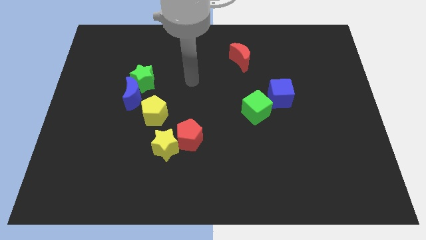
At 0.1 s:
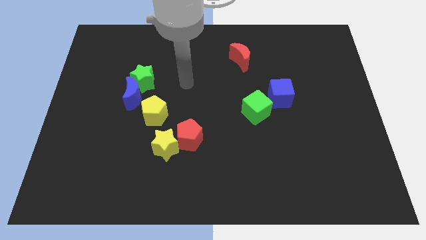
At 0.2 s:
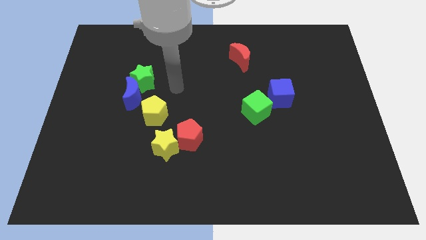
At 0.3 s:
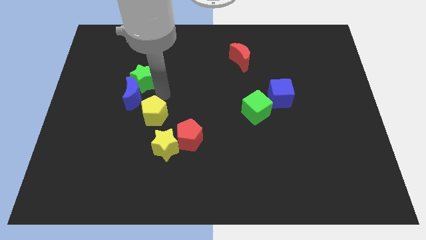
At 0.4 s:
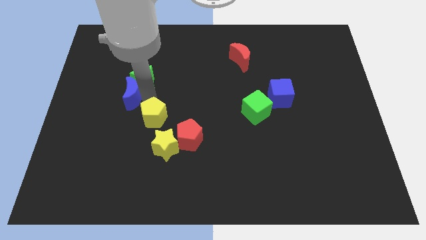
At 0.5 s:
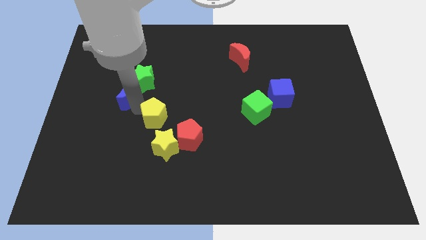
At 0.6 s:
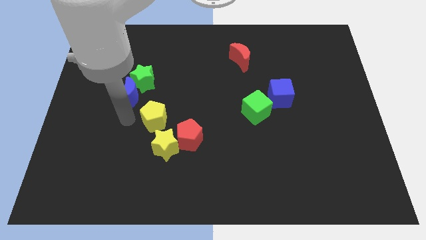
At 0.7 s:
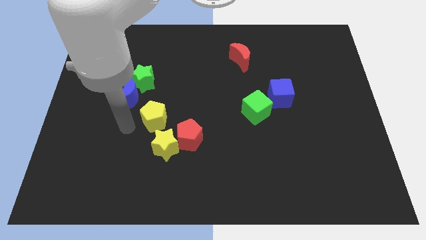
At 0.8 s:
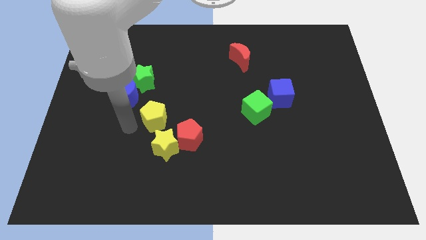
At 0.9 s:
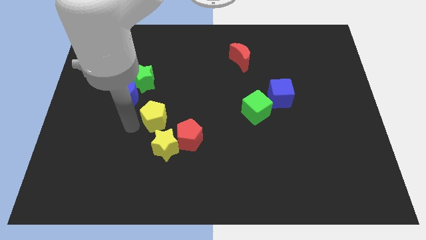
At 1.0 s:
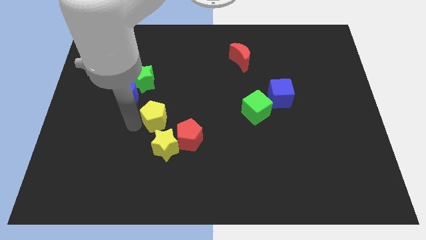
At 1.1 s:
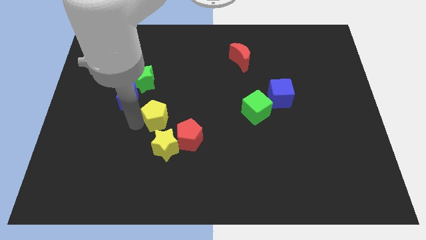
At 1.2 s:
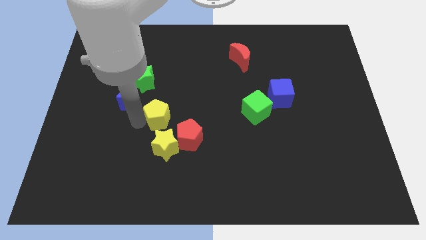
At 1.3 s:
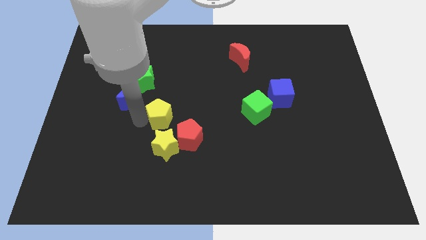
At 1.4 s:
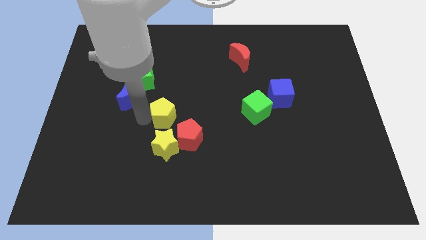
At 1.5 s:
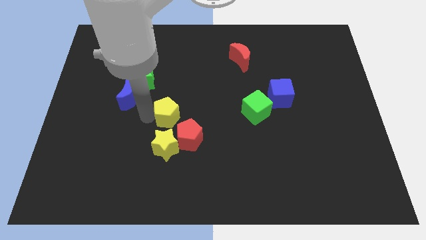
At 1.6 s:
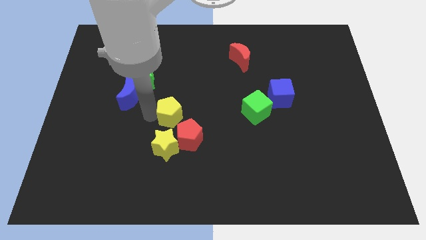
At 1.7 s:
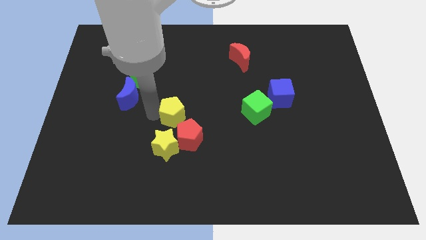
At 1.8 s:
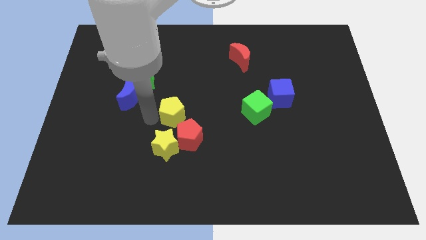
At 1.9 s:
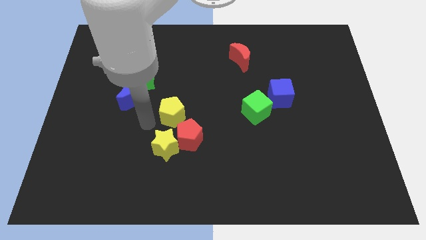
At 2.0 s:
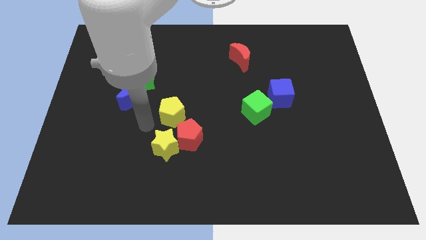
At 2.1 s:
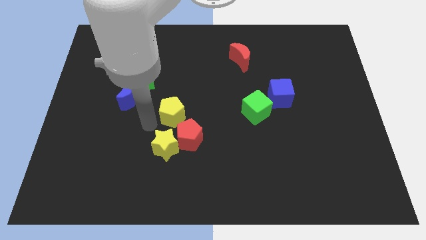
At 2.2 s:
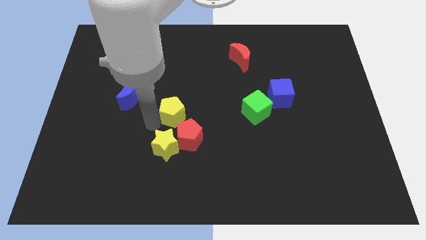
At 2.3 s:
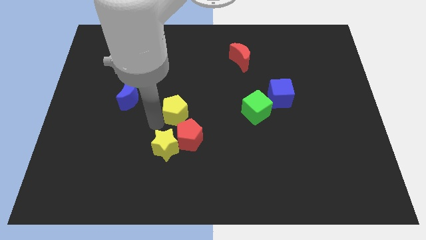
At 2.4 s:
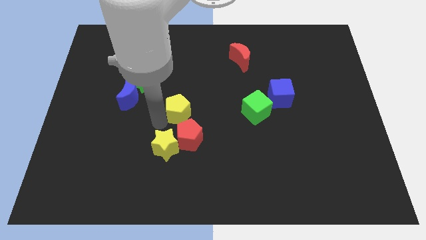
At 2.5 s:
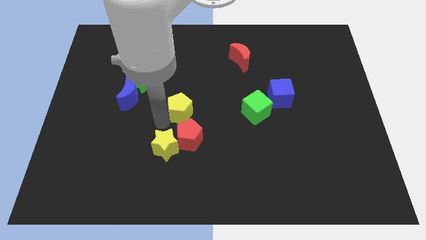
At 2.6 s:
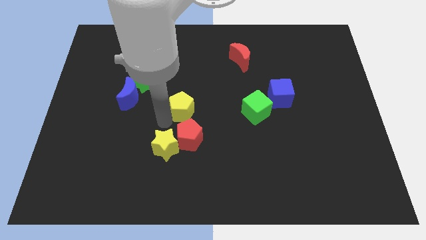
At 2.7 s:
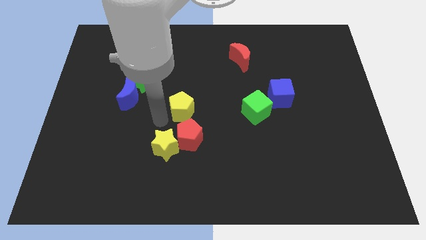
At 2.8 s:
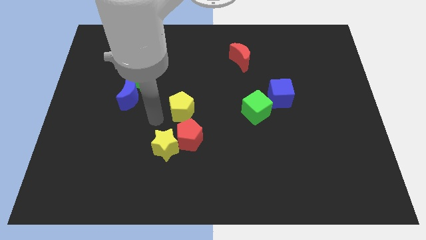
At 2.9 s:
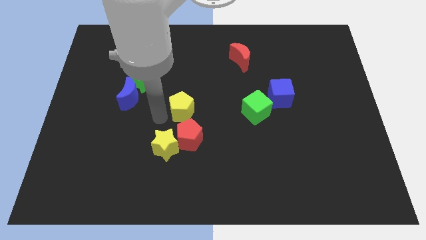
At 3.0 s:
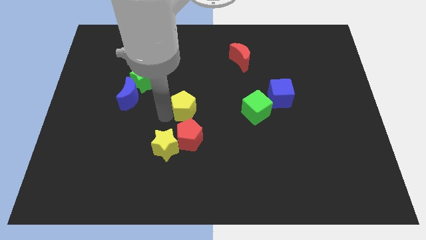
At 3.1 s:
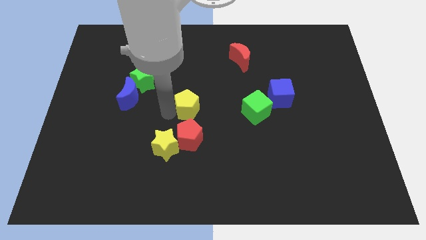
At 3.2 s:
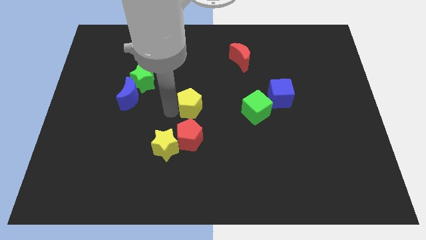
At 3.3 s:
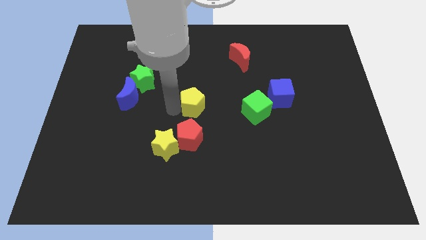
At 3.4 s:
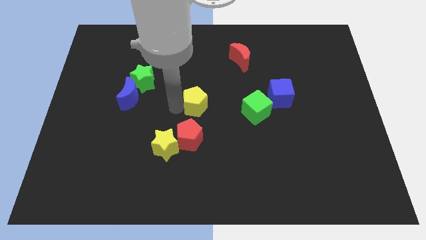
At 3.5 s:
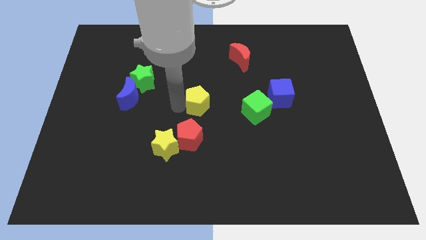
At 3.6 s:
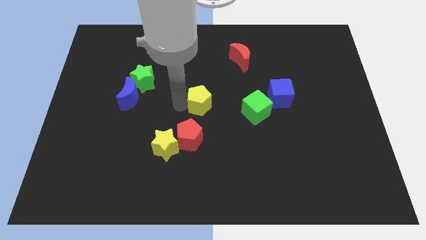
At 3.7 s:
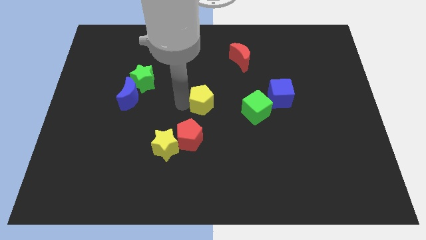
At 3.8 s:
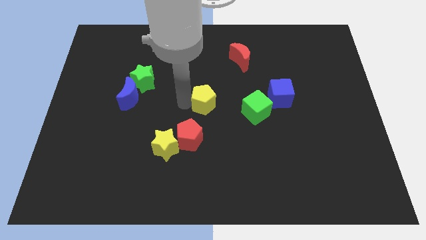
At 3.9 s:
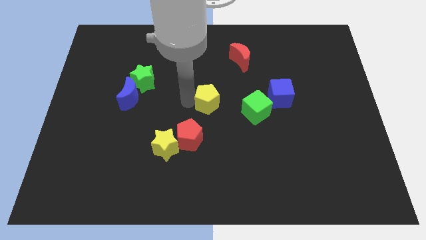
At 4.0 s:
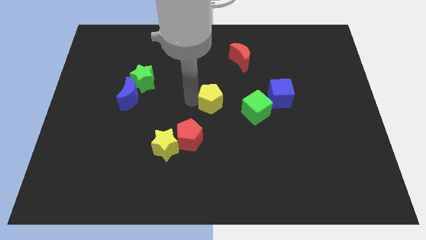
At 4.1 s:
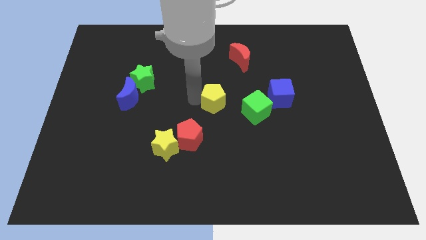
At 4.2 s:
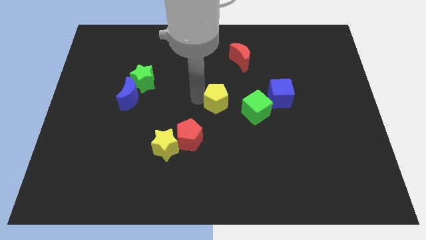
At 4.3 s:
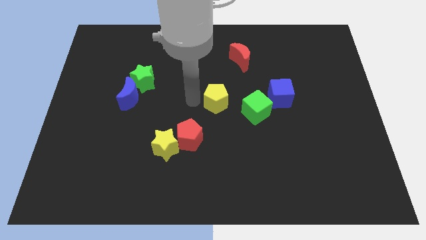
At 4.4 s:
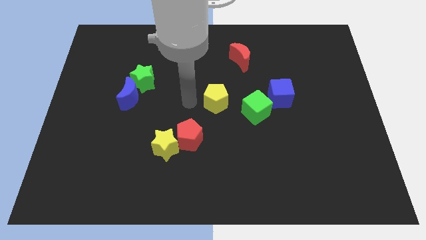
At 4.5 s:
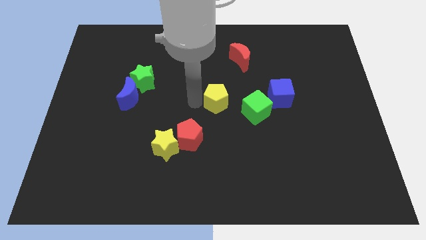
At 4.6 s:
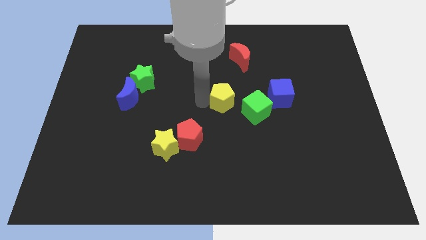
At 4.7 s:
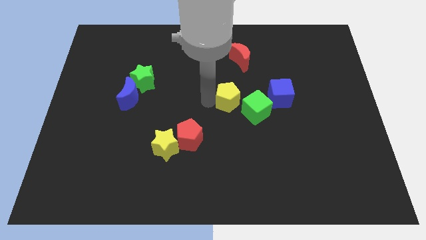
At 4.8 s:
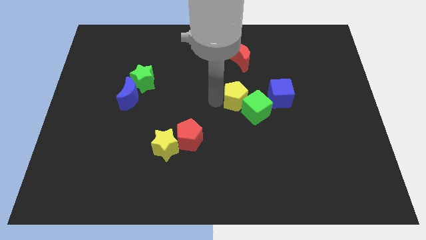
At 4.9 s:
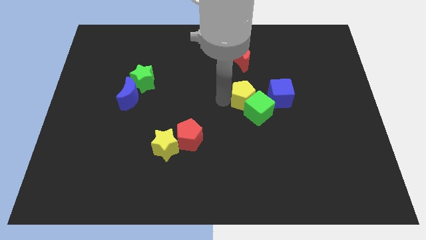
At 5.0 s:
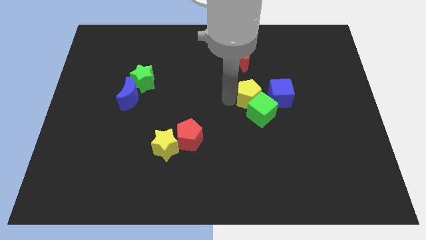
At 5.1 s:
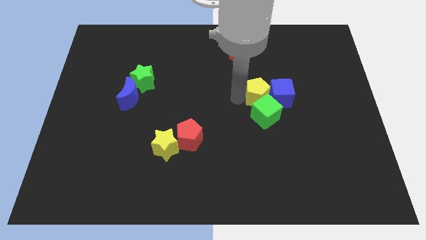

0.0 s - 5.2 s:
move the yellow pentagon next to the blue cube

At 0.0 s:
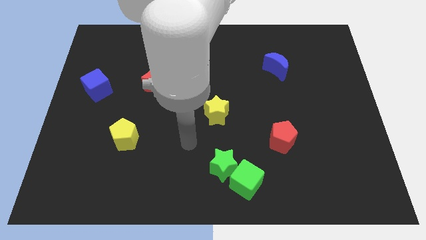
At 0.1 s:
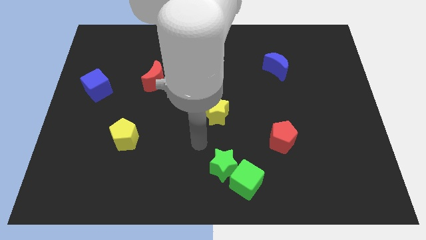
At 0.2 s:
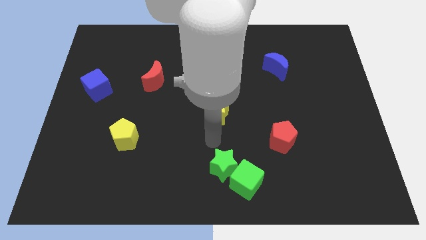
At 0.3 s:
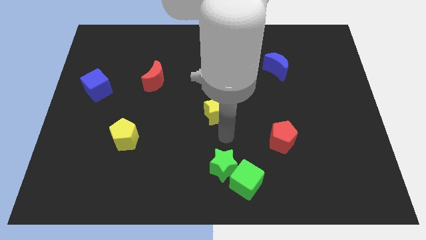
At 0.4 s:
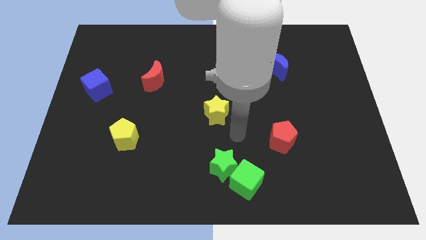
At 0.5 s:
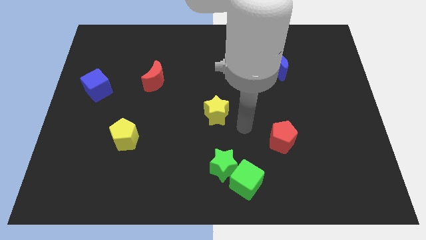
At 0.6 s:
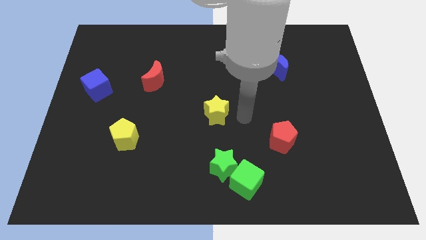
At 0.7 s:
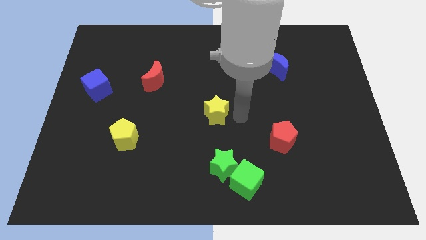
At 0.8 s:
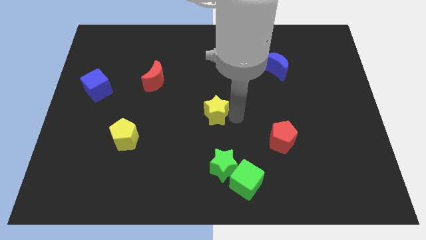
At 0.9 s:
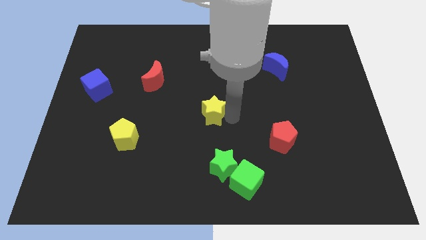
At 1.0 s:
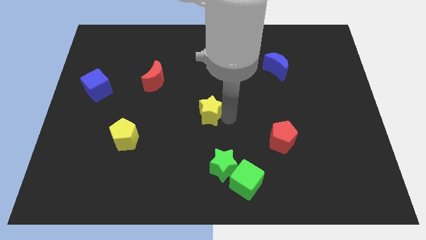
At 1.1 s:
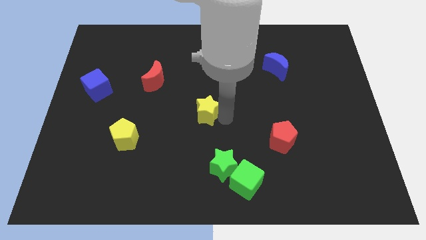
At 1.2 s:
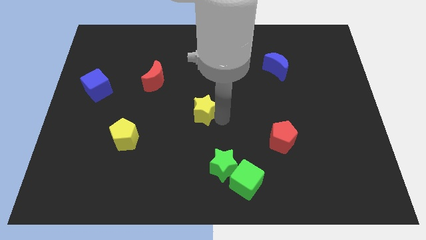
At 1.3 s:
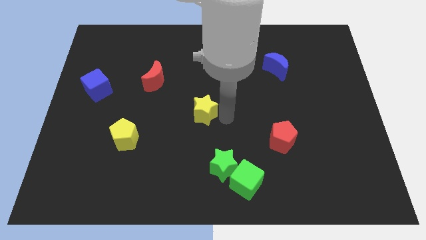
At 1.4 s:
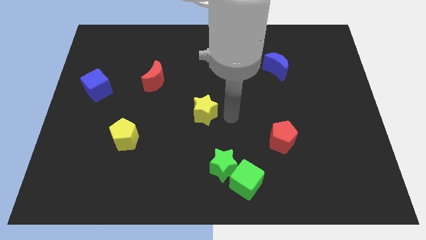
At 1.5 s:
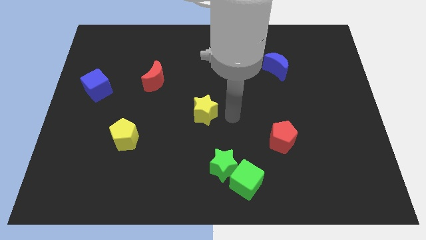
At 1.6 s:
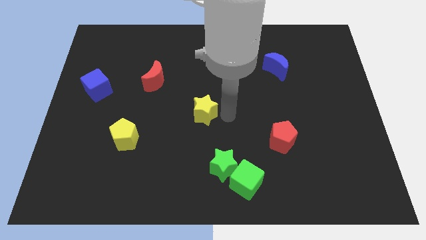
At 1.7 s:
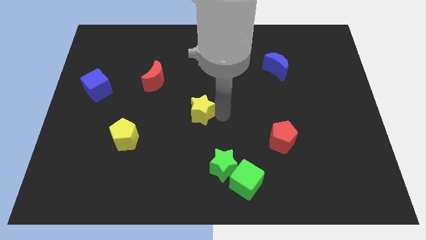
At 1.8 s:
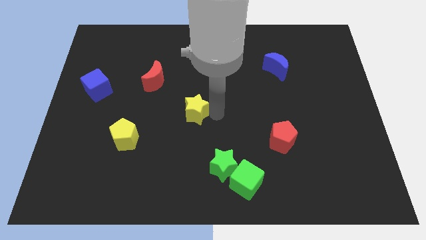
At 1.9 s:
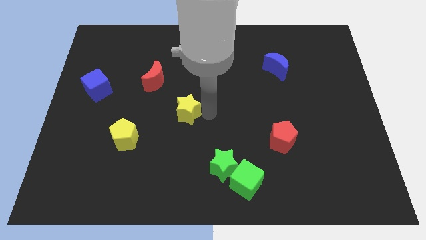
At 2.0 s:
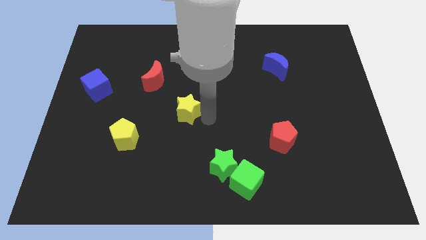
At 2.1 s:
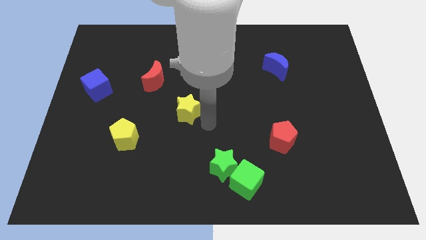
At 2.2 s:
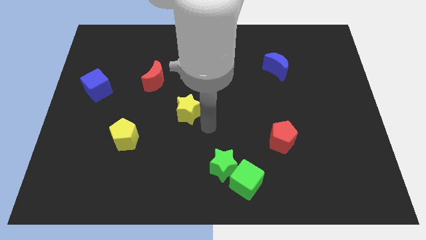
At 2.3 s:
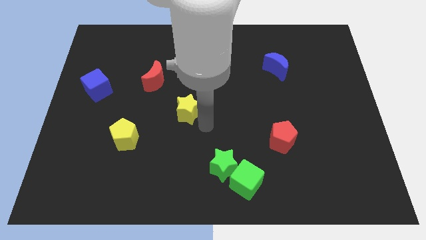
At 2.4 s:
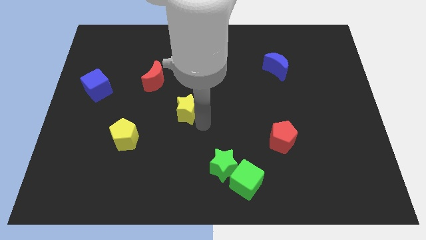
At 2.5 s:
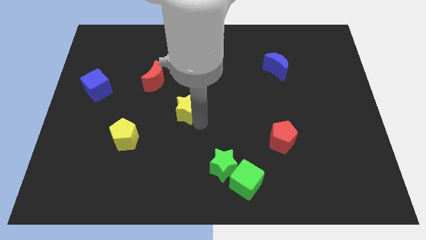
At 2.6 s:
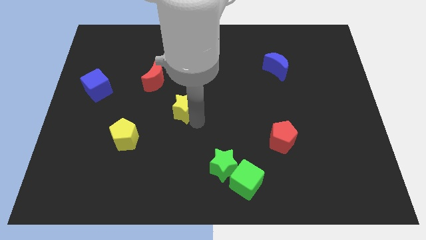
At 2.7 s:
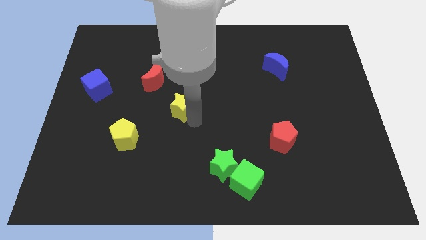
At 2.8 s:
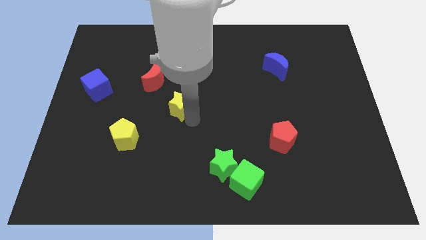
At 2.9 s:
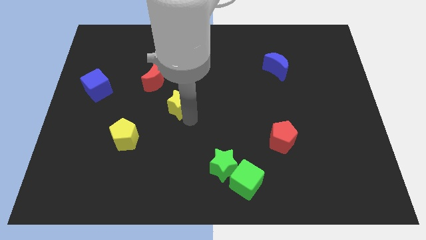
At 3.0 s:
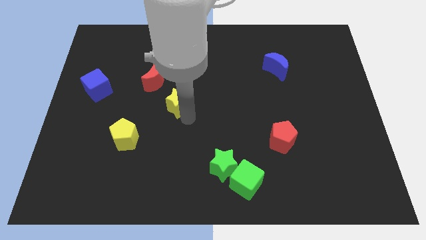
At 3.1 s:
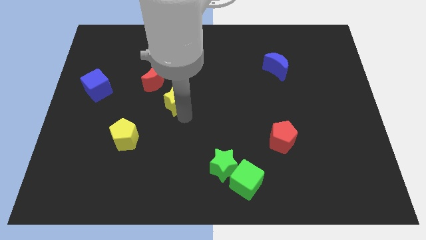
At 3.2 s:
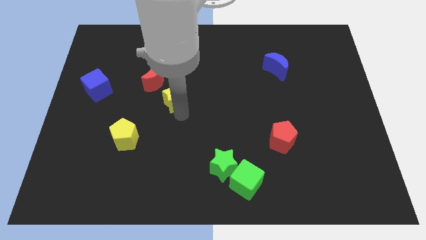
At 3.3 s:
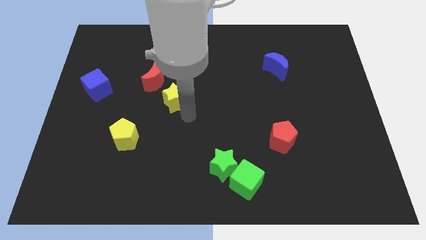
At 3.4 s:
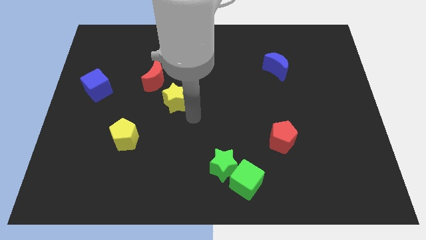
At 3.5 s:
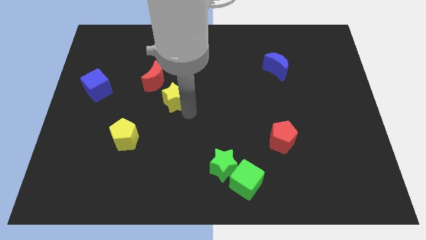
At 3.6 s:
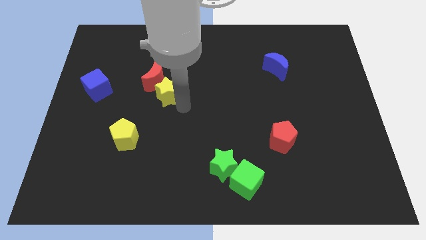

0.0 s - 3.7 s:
move the yellow star towards the red moon
